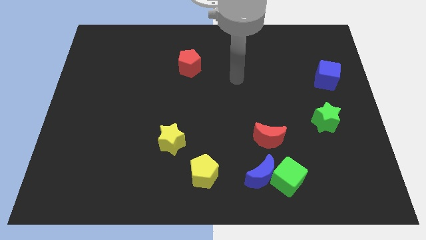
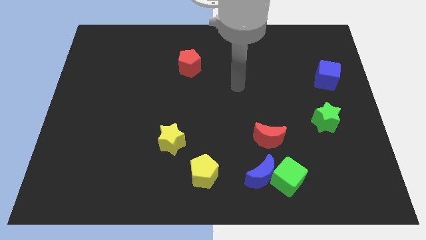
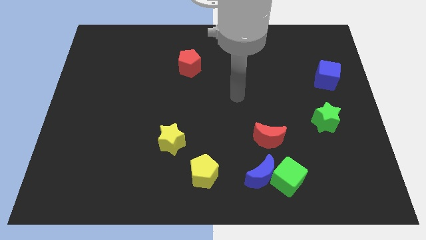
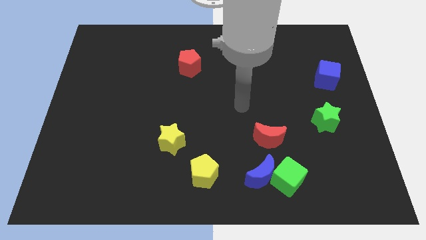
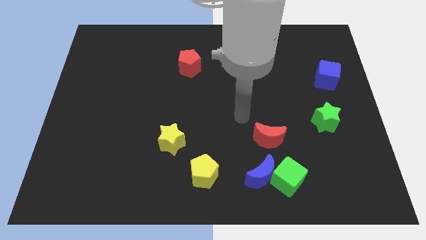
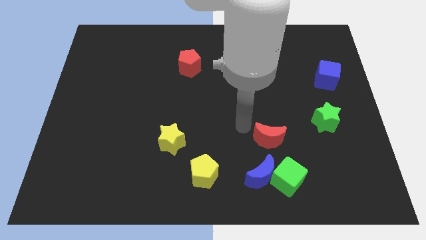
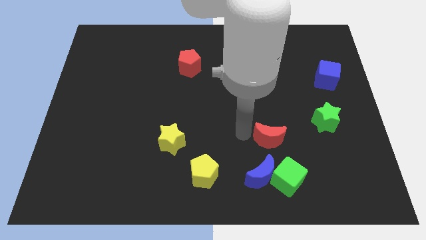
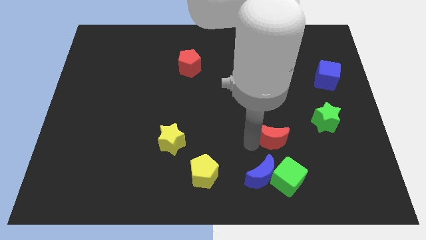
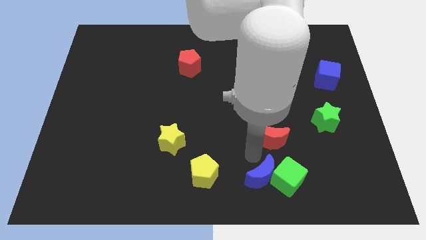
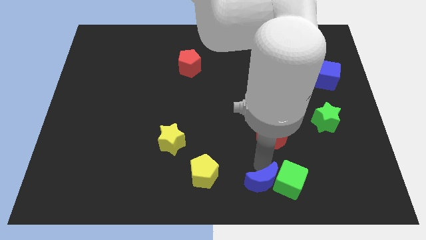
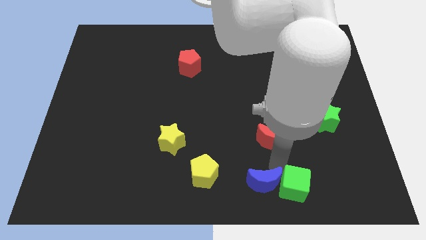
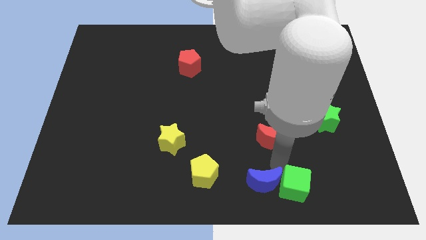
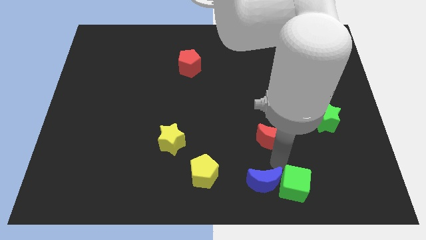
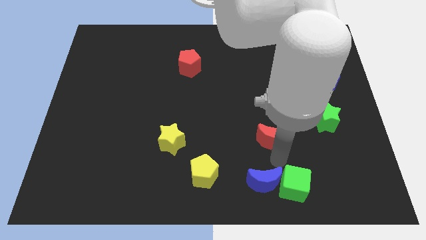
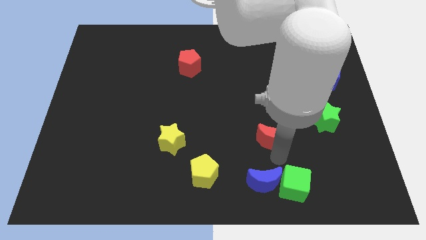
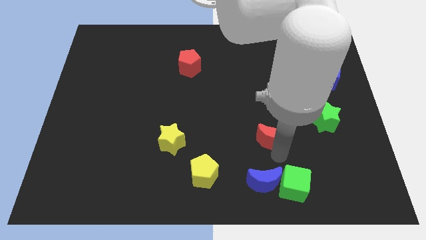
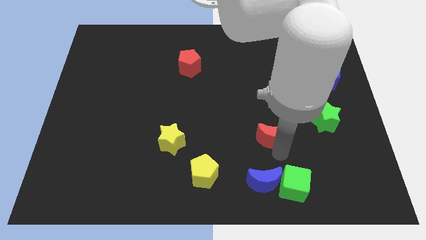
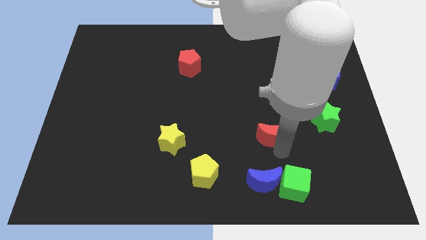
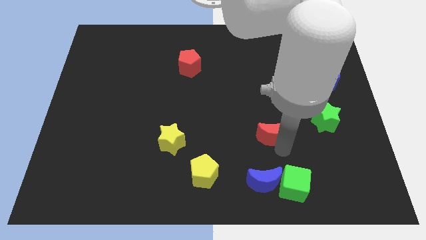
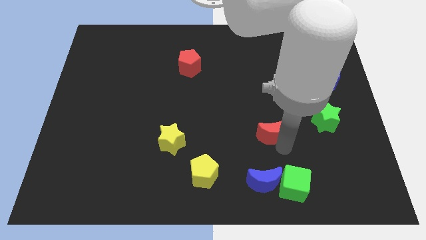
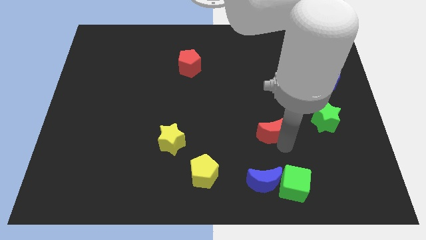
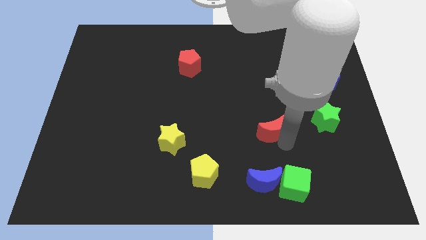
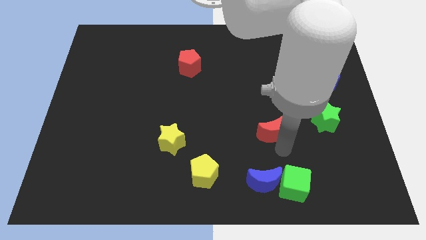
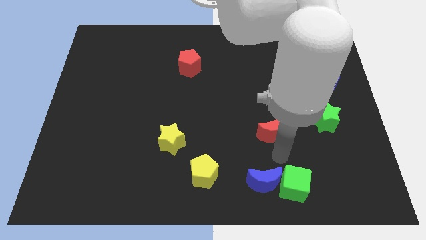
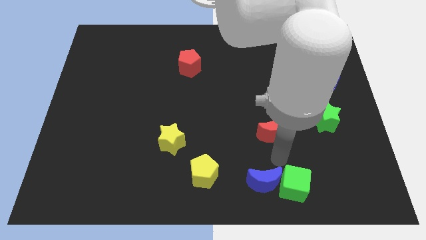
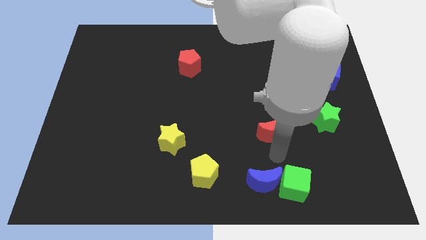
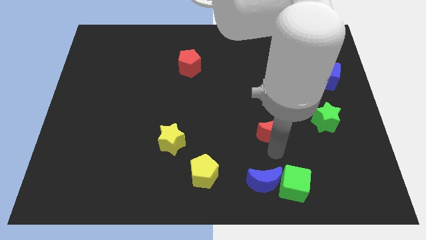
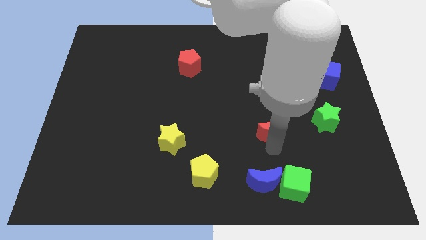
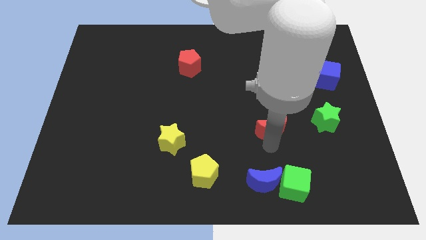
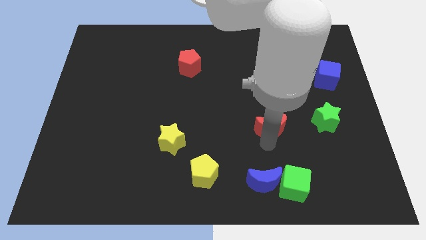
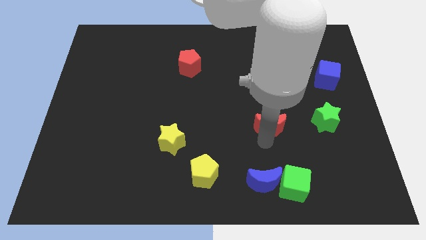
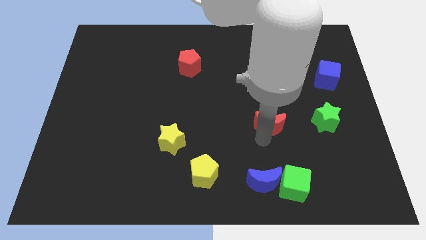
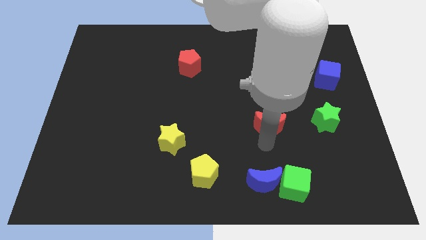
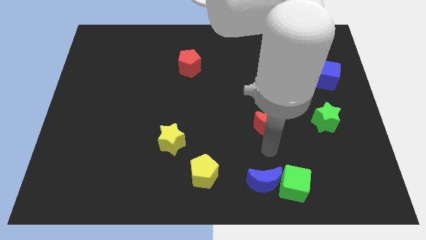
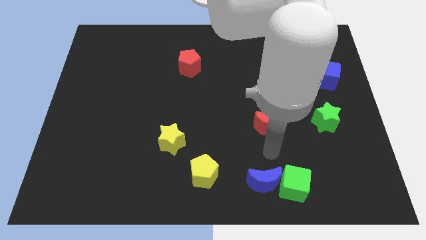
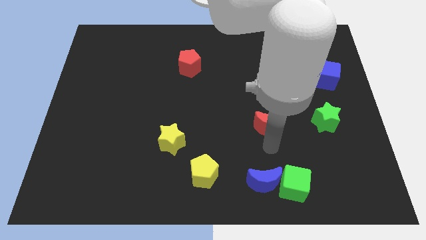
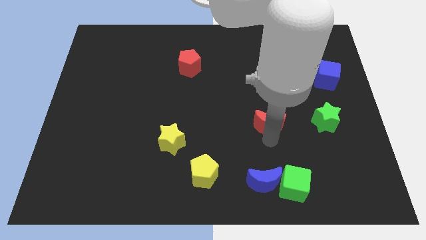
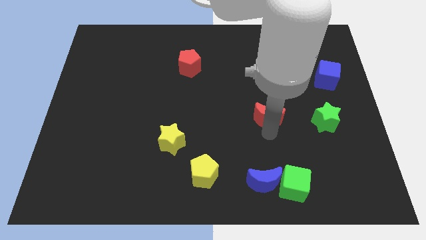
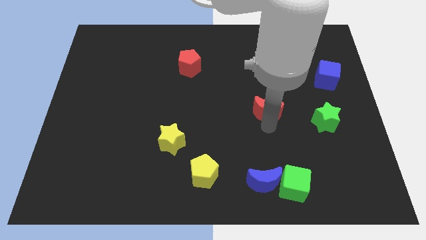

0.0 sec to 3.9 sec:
slightly slide the red moon upwards

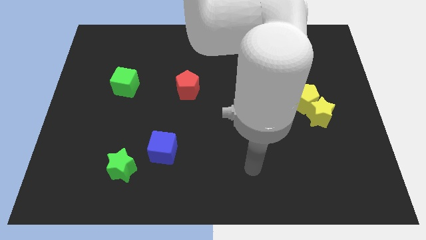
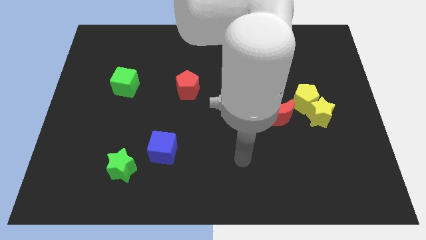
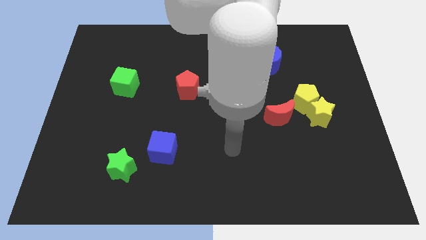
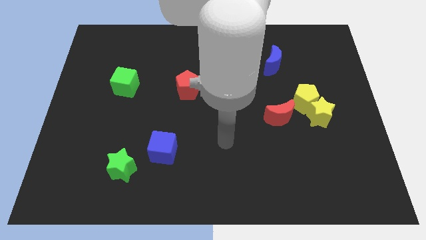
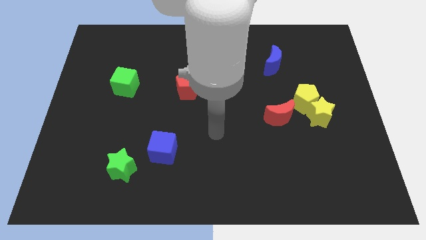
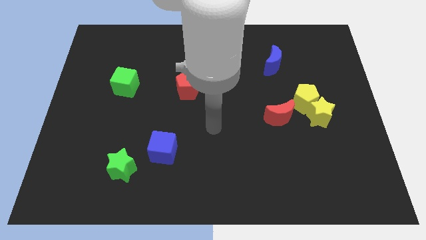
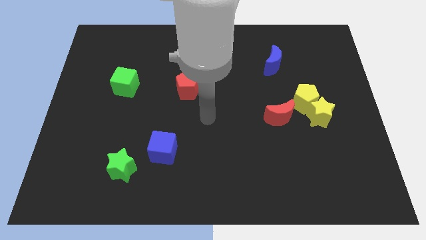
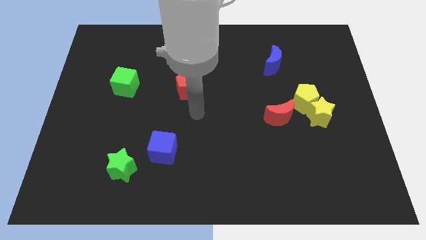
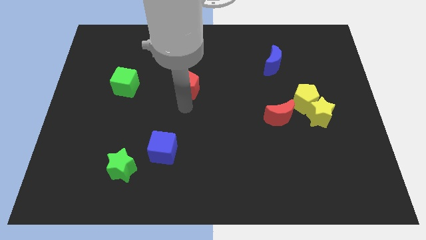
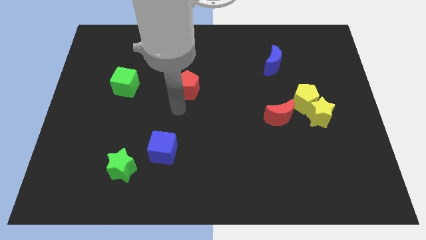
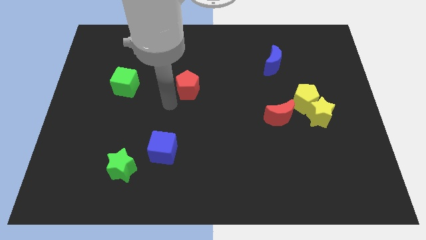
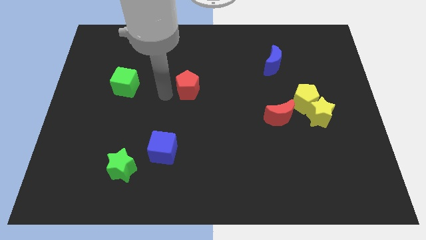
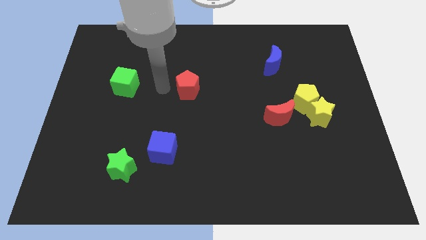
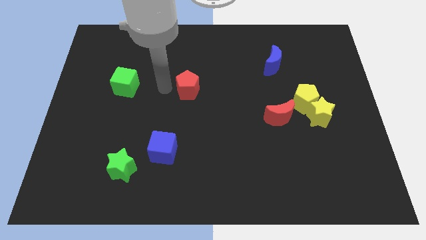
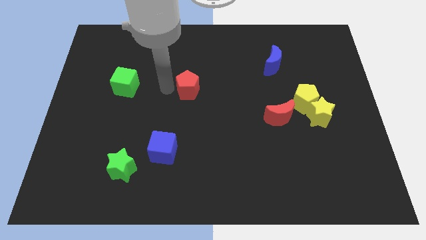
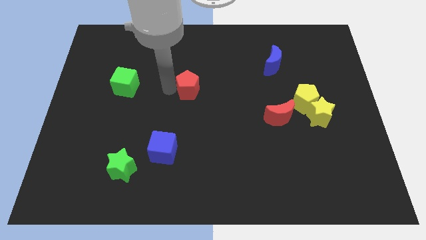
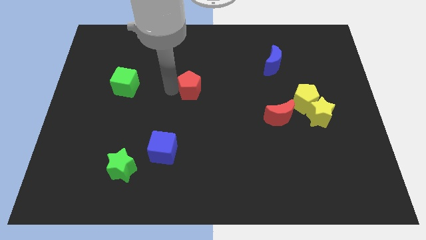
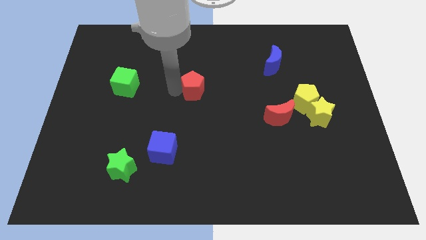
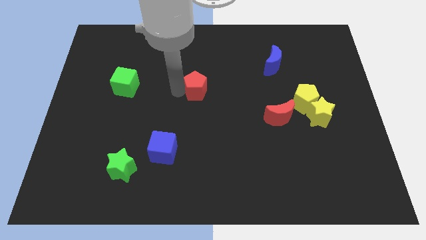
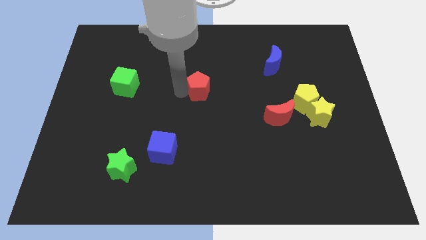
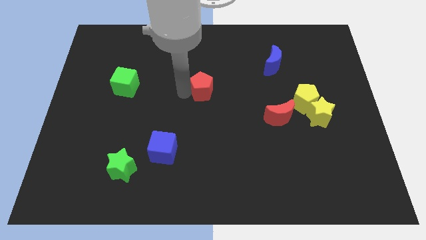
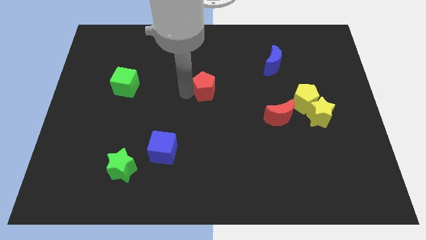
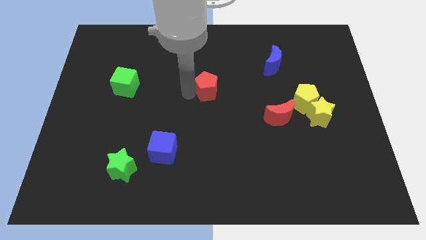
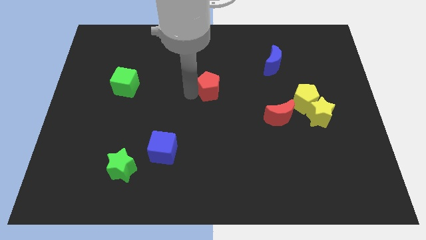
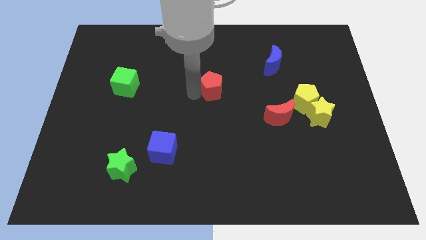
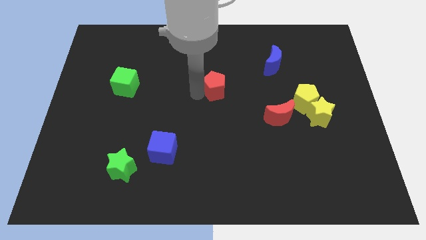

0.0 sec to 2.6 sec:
slide the red pentagon to the right somewhat

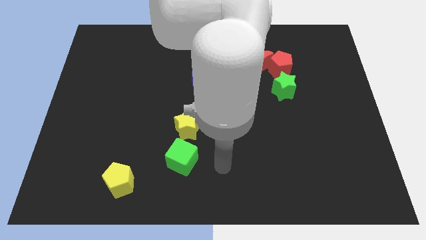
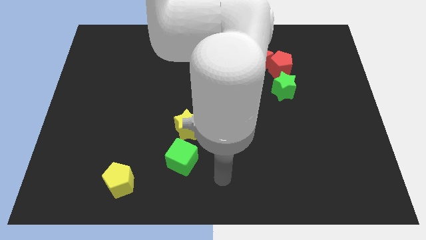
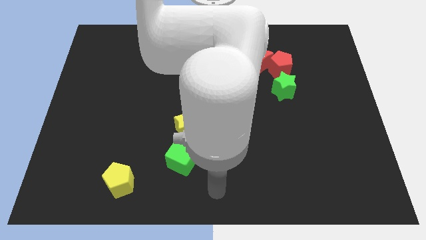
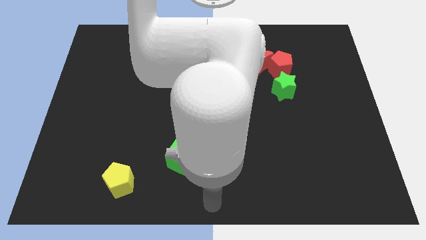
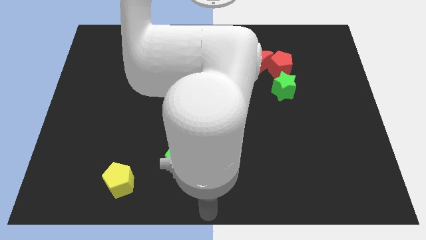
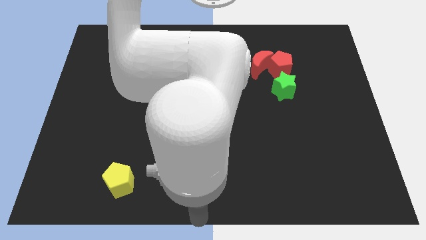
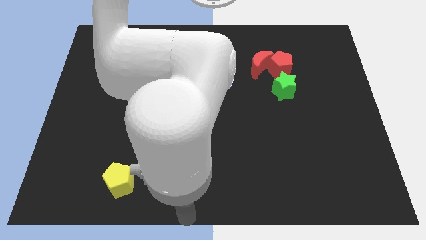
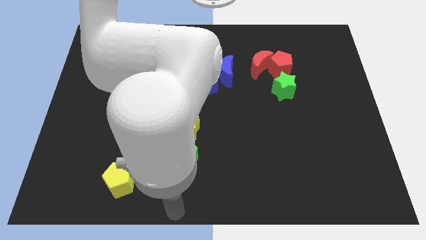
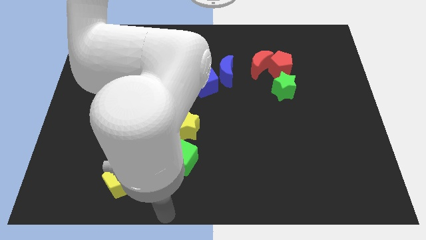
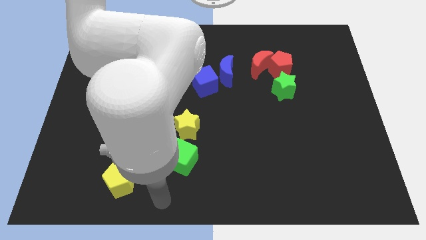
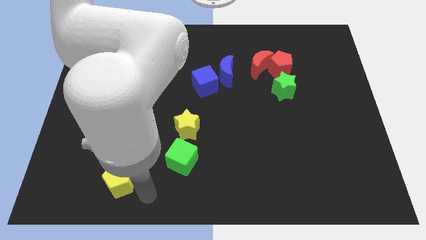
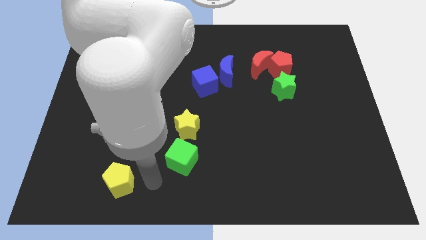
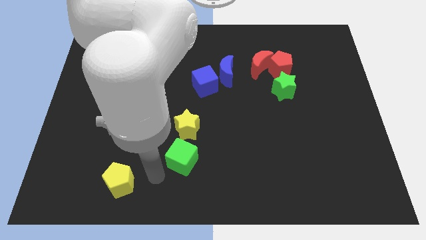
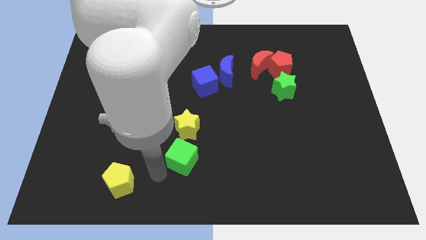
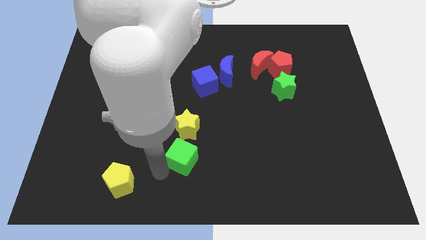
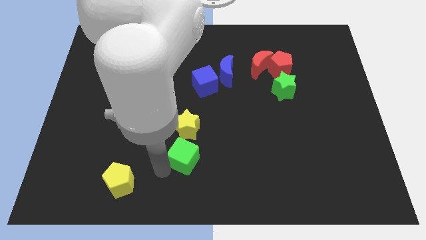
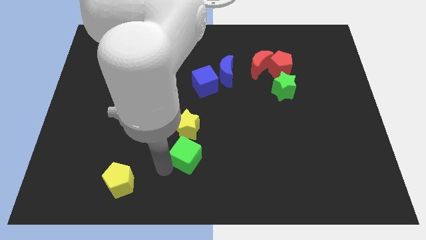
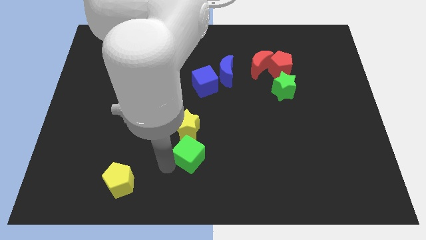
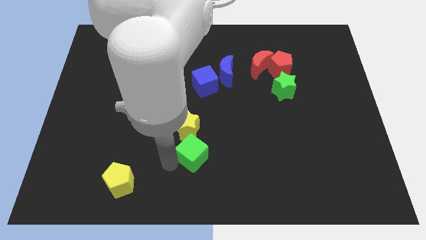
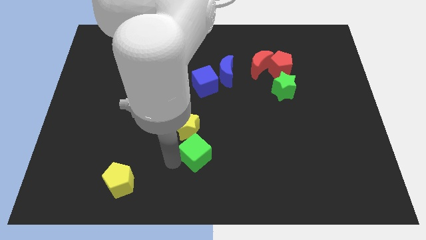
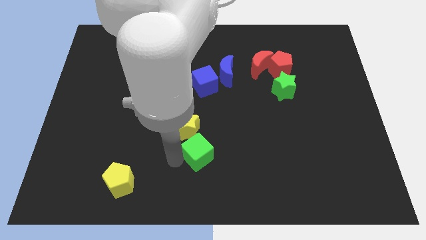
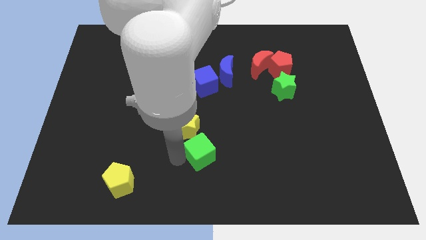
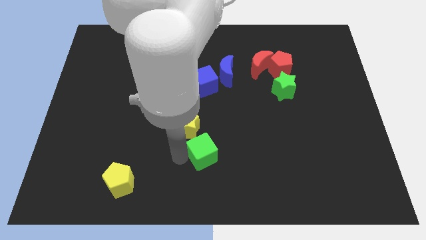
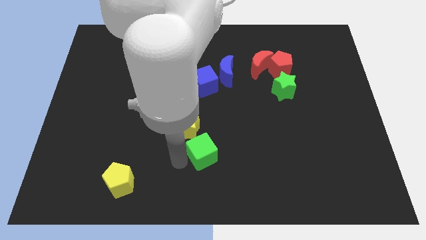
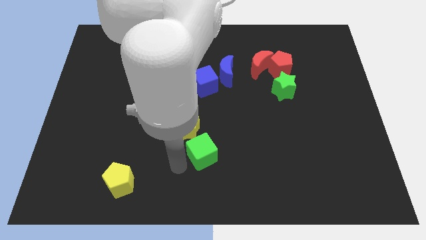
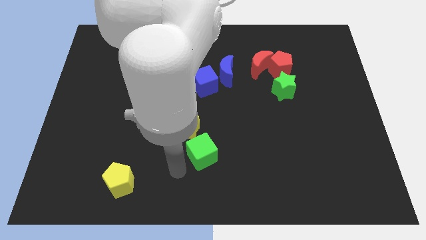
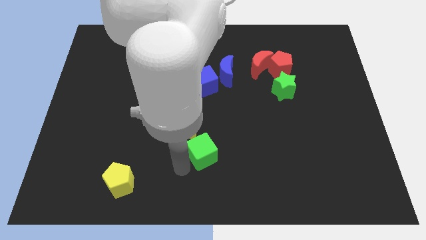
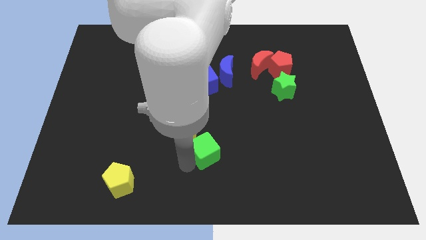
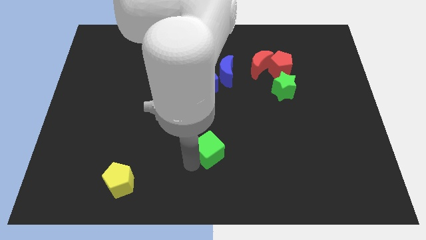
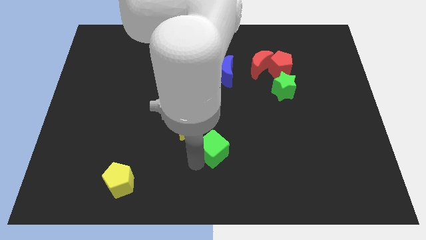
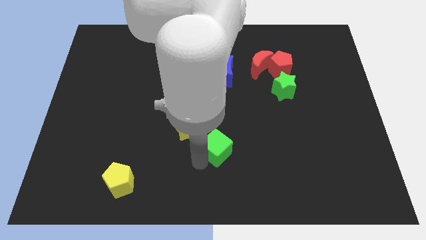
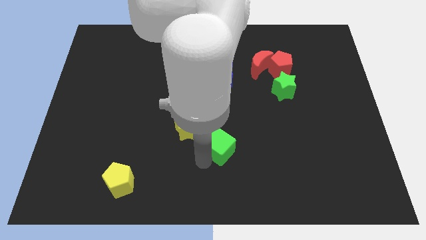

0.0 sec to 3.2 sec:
push the green cube upwards and then to the right a little
